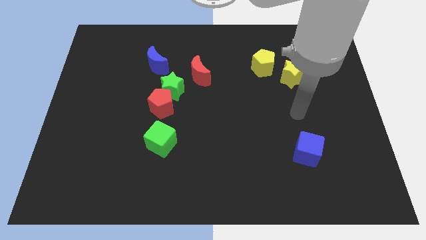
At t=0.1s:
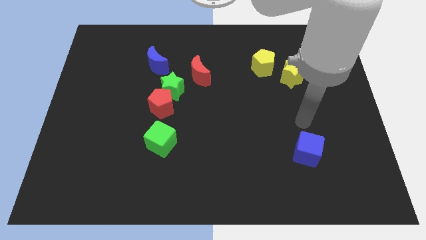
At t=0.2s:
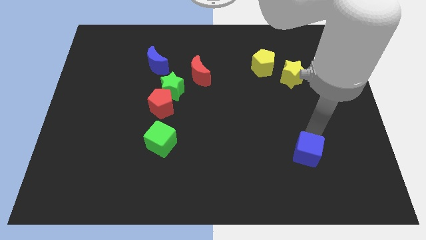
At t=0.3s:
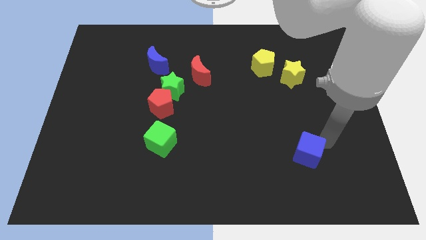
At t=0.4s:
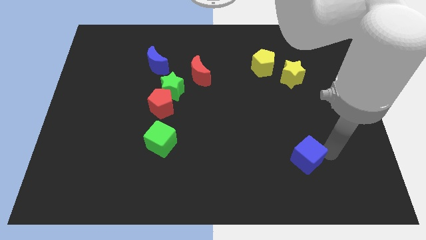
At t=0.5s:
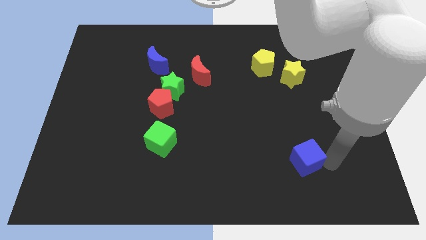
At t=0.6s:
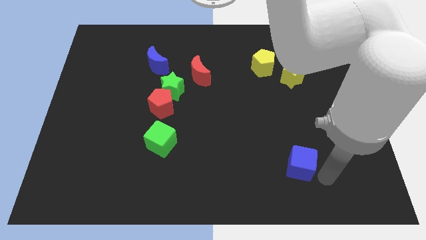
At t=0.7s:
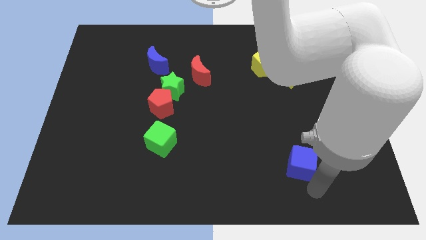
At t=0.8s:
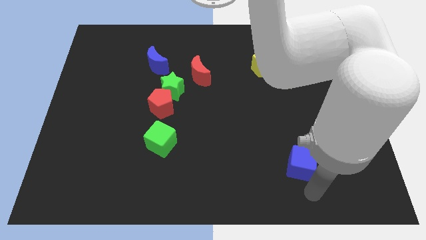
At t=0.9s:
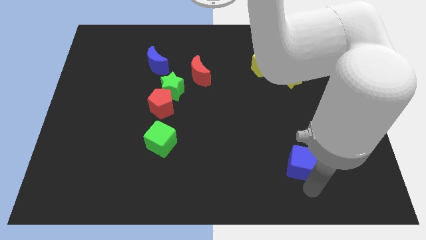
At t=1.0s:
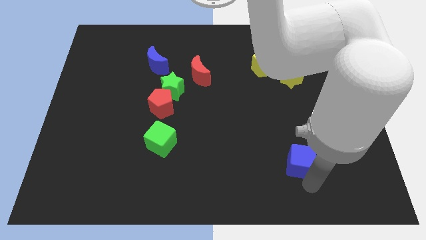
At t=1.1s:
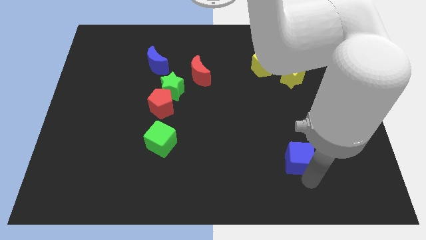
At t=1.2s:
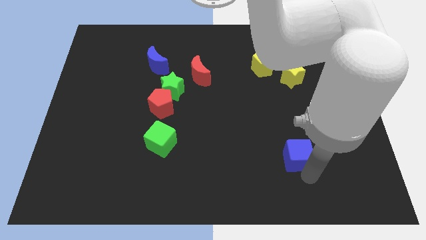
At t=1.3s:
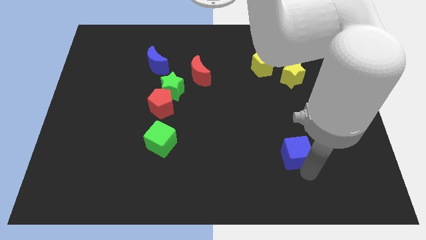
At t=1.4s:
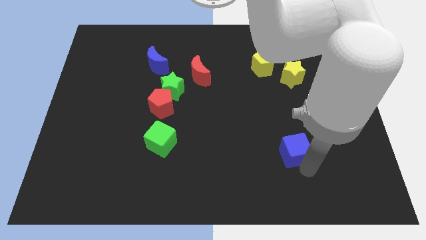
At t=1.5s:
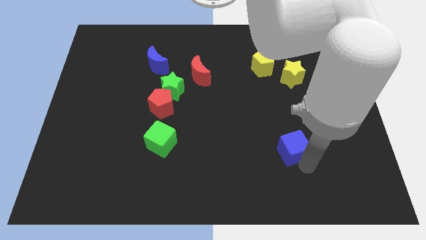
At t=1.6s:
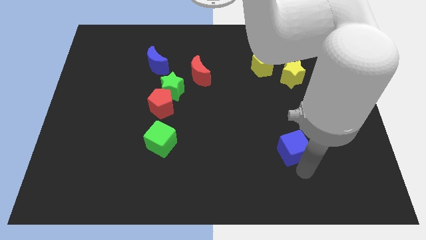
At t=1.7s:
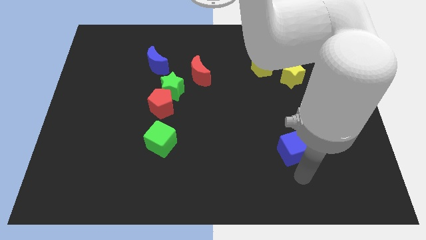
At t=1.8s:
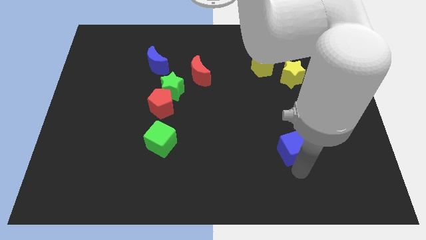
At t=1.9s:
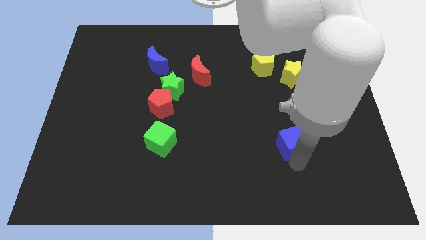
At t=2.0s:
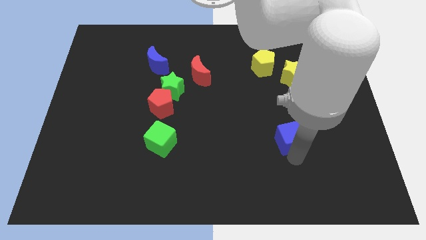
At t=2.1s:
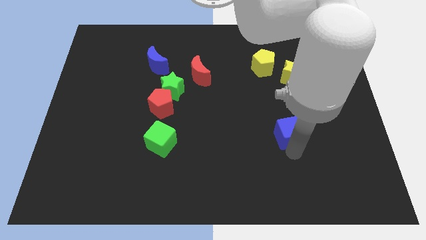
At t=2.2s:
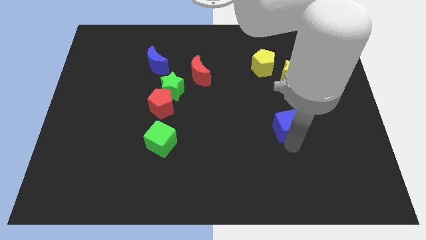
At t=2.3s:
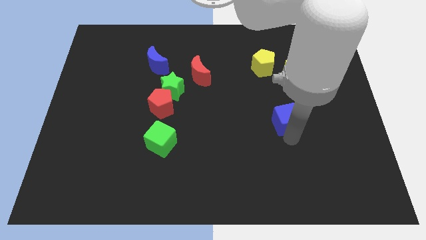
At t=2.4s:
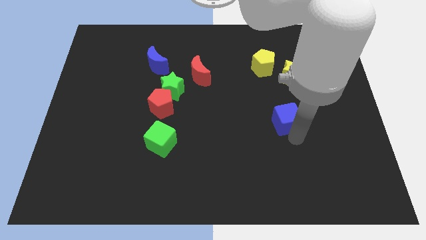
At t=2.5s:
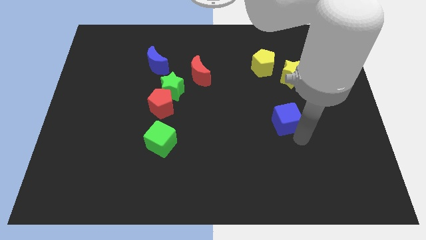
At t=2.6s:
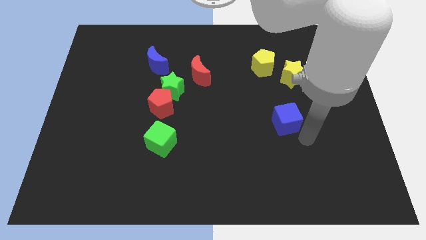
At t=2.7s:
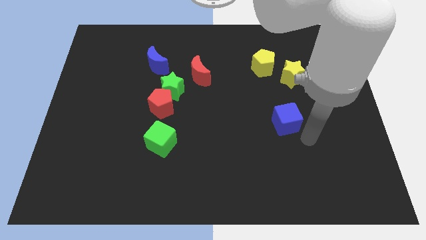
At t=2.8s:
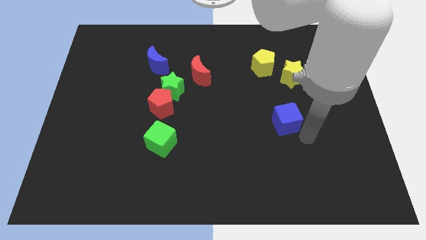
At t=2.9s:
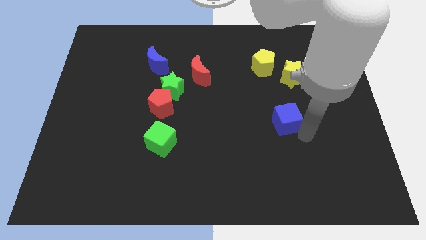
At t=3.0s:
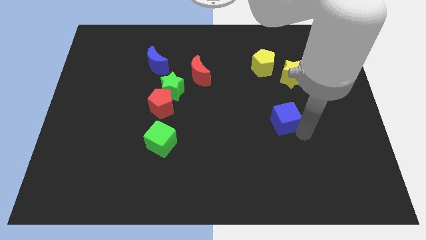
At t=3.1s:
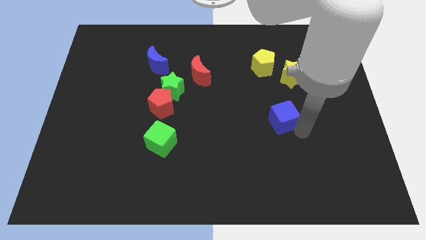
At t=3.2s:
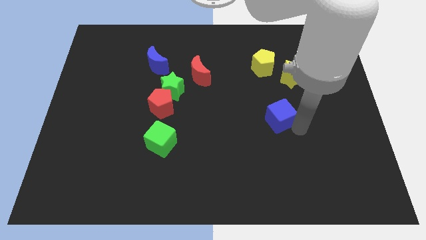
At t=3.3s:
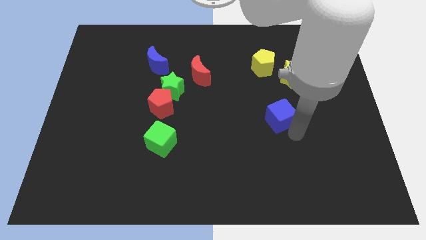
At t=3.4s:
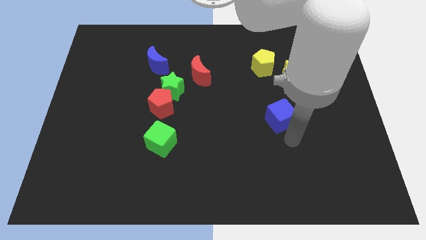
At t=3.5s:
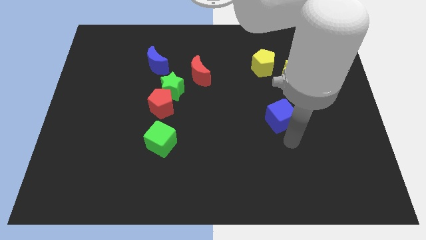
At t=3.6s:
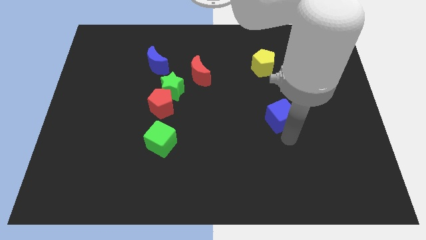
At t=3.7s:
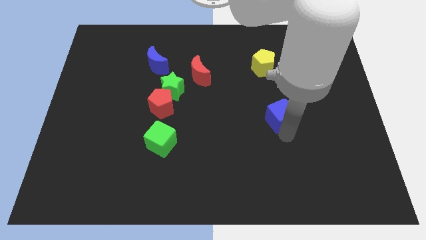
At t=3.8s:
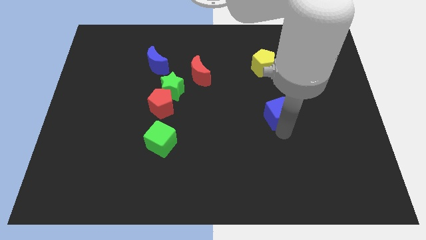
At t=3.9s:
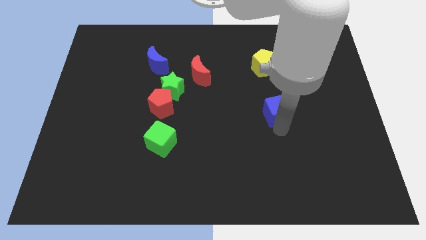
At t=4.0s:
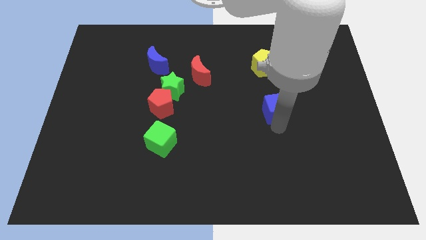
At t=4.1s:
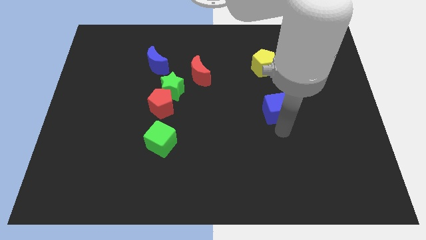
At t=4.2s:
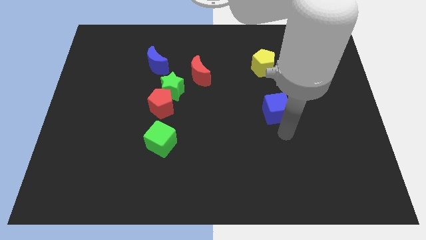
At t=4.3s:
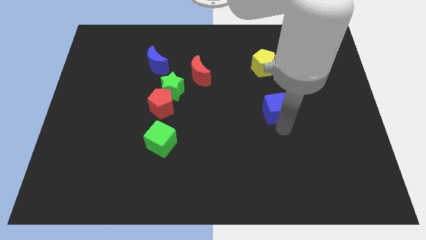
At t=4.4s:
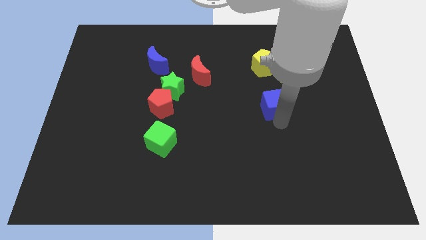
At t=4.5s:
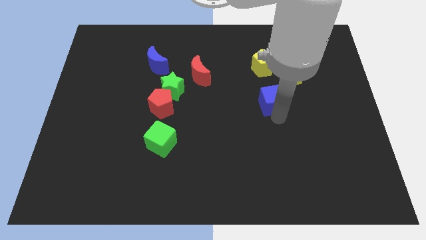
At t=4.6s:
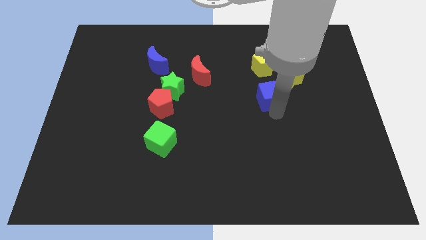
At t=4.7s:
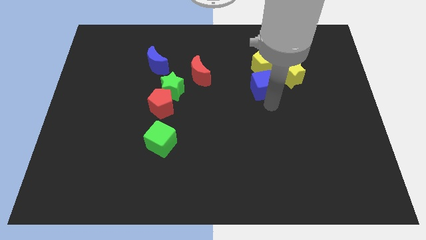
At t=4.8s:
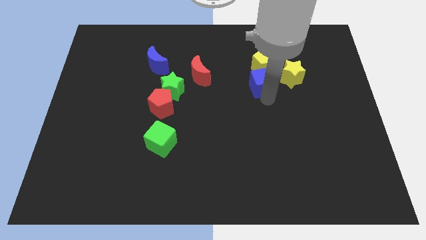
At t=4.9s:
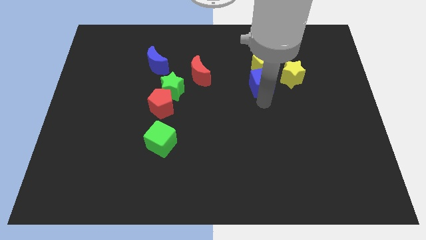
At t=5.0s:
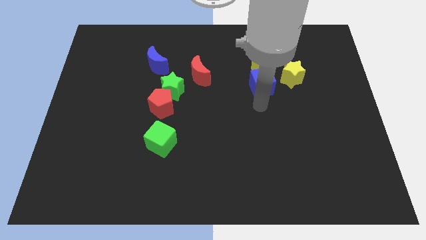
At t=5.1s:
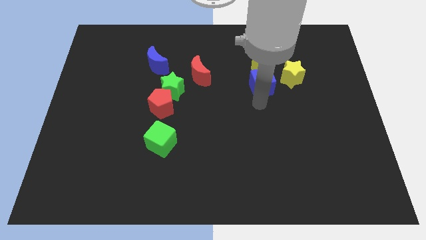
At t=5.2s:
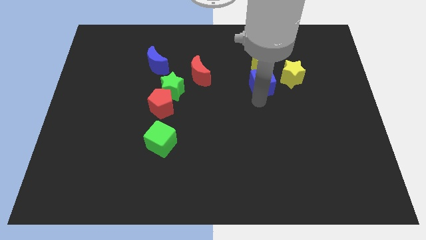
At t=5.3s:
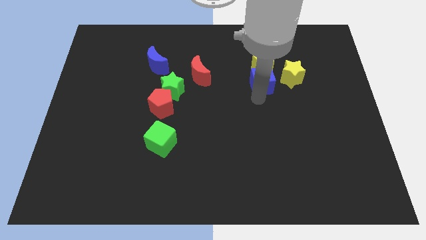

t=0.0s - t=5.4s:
slide the blue cube close to the yellow pentagon

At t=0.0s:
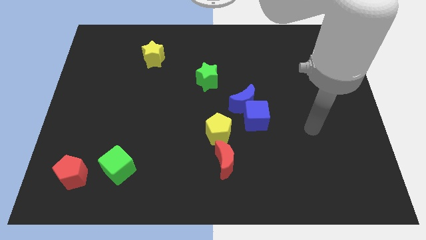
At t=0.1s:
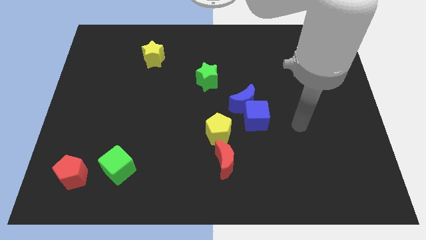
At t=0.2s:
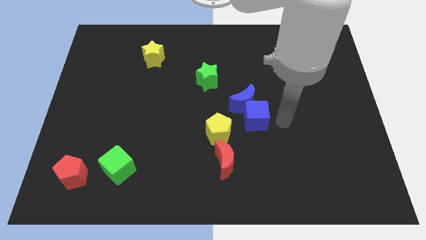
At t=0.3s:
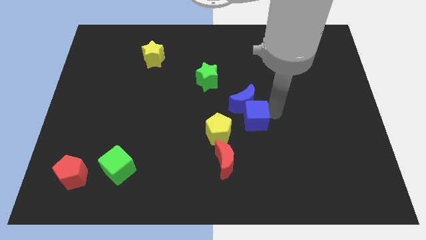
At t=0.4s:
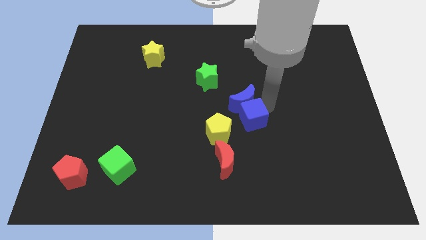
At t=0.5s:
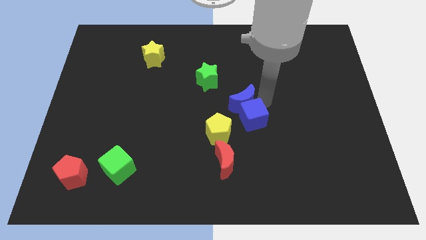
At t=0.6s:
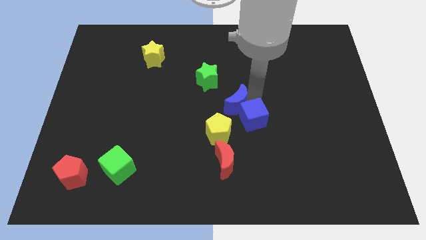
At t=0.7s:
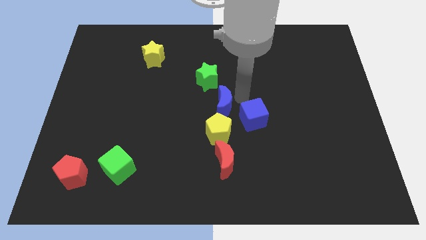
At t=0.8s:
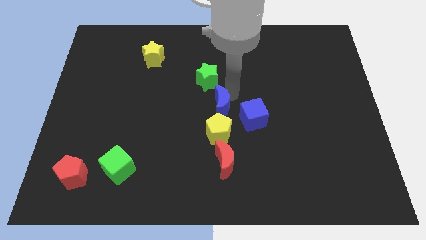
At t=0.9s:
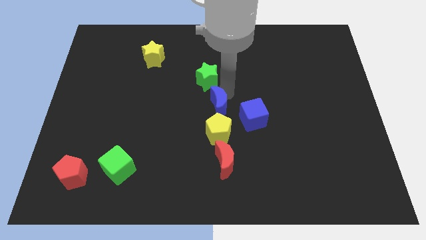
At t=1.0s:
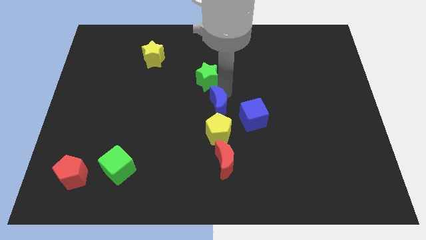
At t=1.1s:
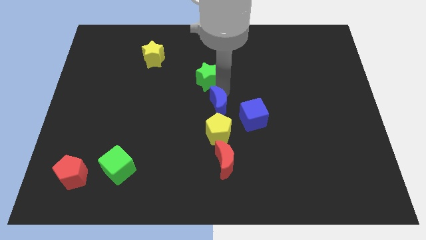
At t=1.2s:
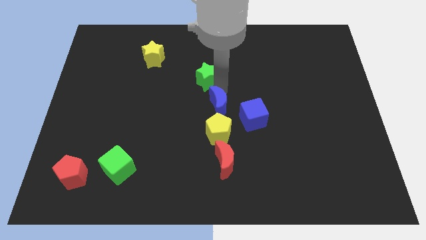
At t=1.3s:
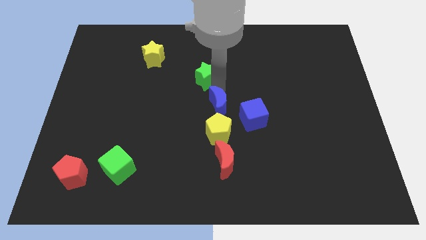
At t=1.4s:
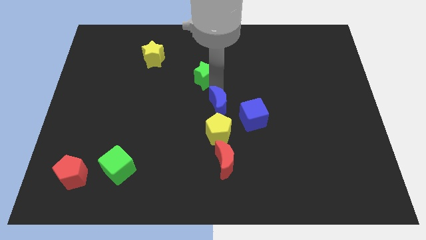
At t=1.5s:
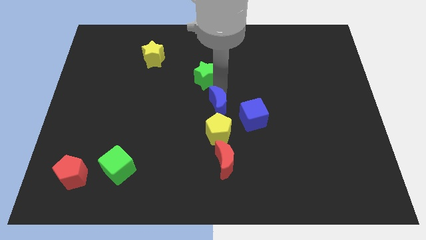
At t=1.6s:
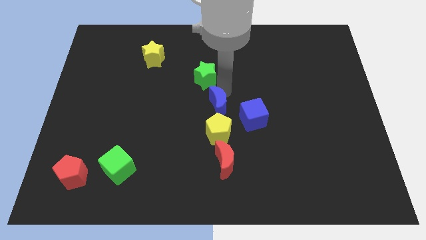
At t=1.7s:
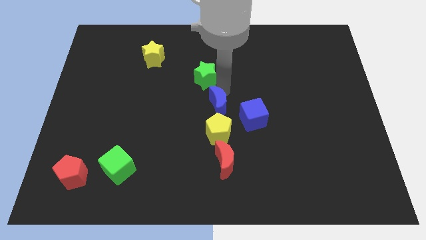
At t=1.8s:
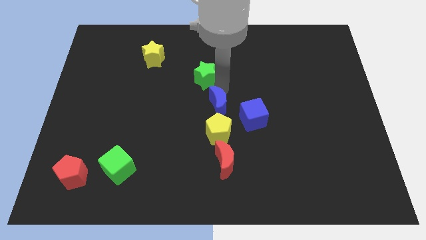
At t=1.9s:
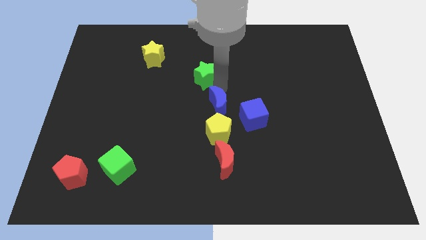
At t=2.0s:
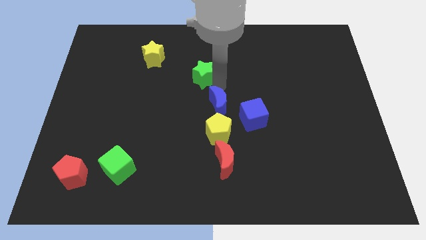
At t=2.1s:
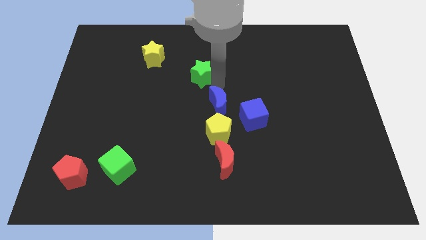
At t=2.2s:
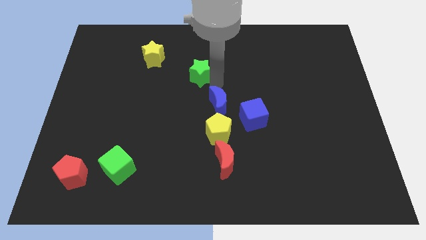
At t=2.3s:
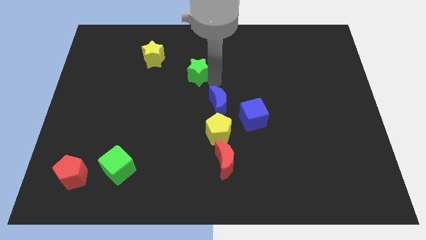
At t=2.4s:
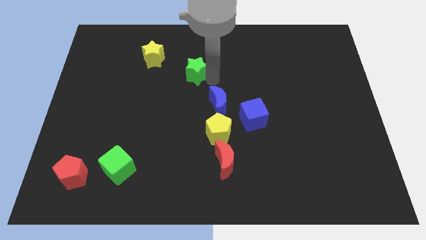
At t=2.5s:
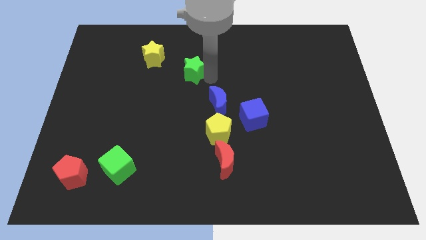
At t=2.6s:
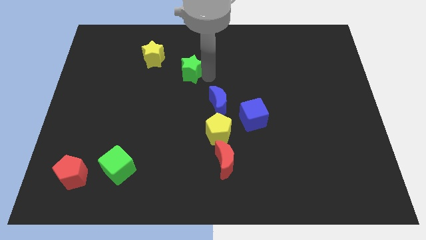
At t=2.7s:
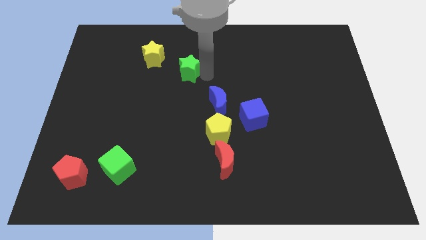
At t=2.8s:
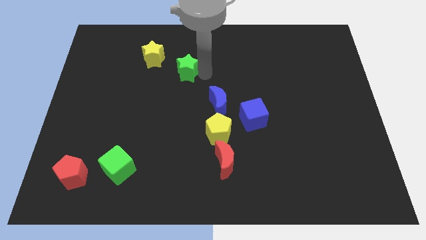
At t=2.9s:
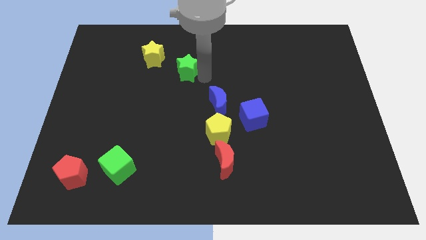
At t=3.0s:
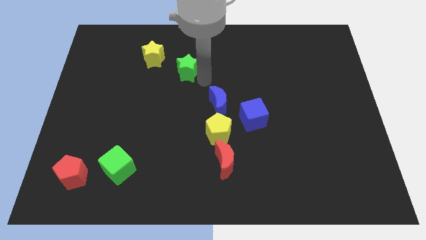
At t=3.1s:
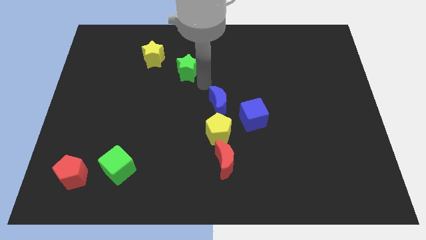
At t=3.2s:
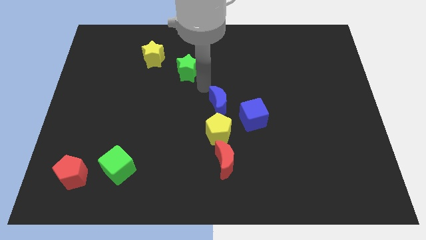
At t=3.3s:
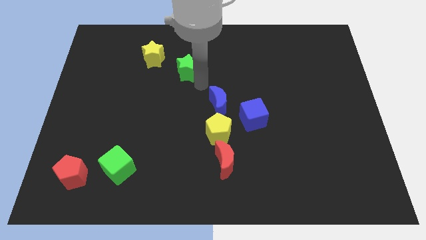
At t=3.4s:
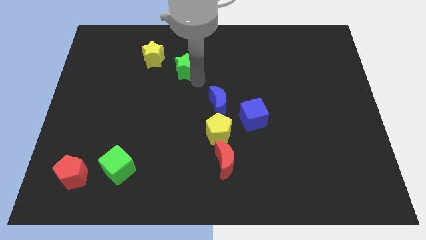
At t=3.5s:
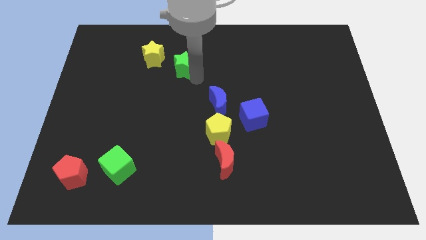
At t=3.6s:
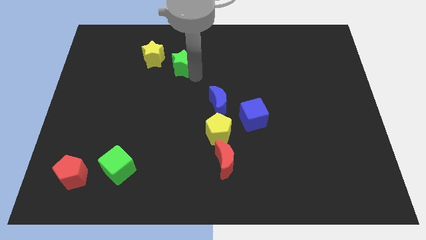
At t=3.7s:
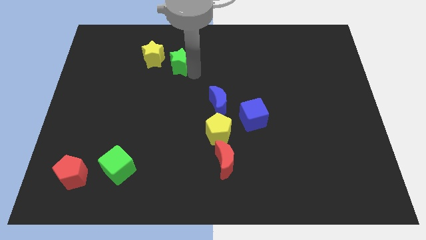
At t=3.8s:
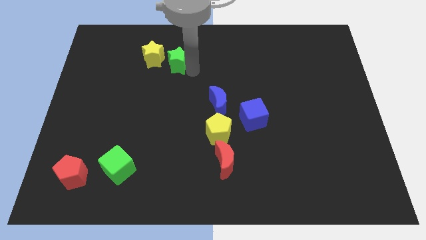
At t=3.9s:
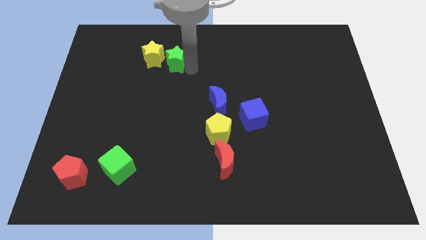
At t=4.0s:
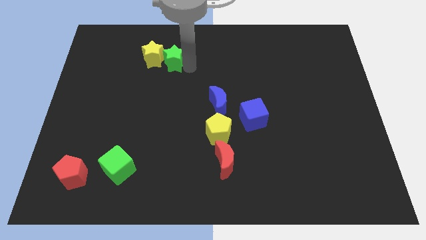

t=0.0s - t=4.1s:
slide the green star to the yellow star
